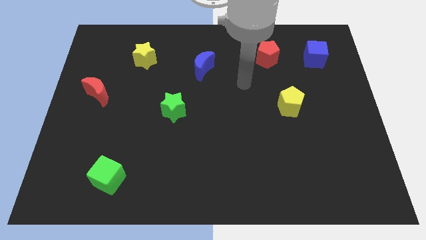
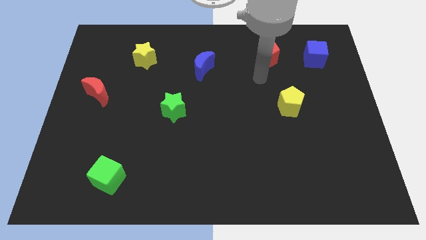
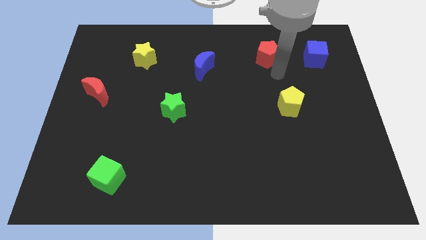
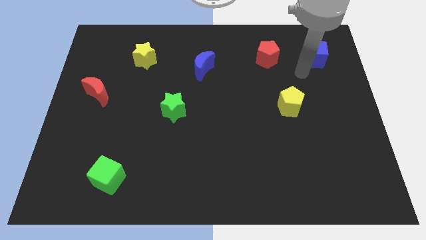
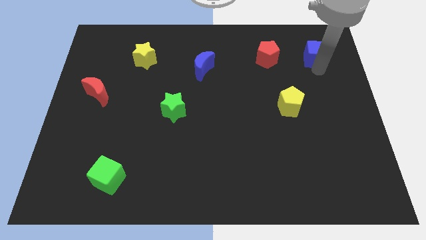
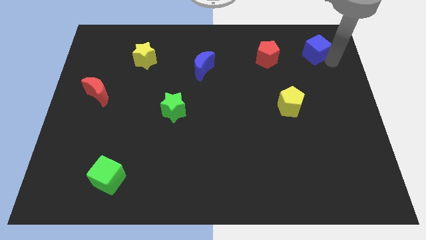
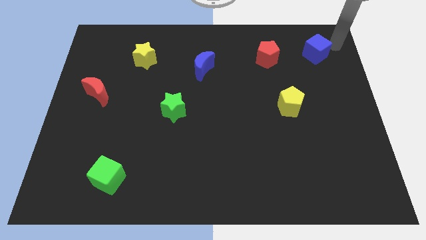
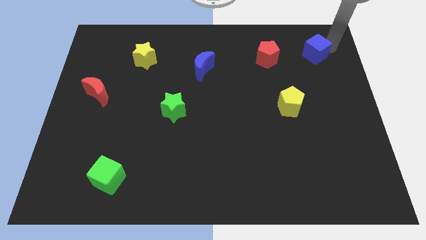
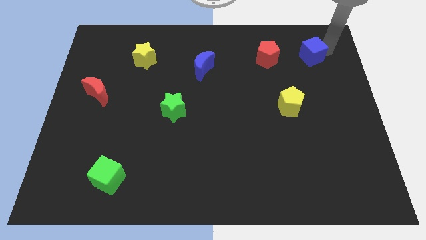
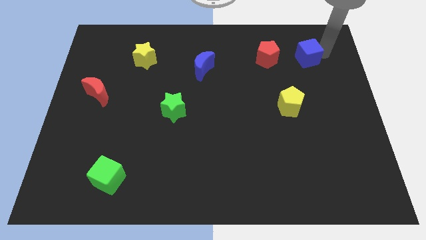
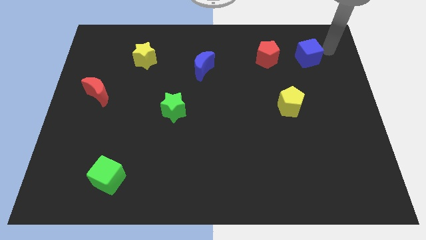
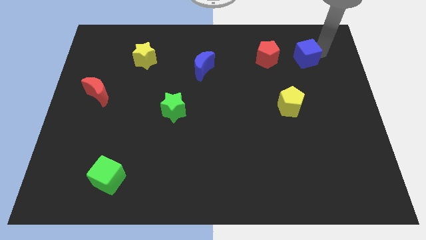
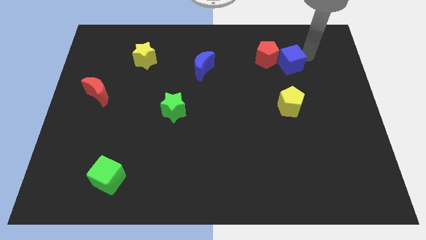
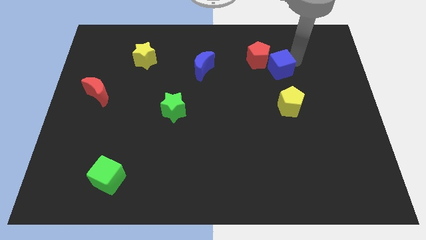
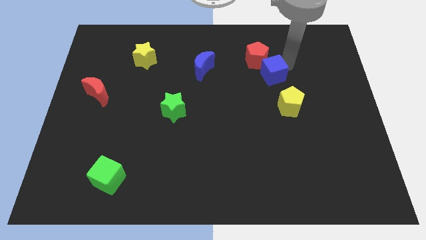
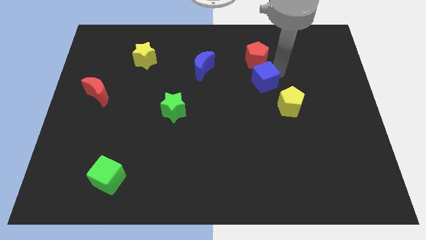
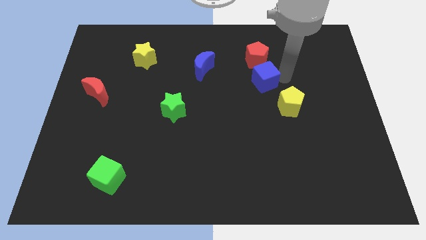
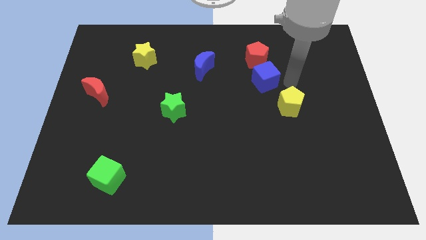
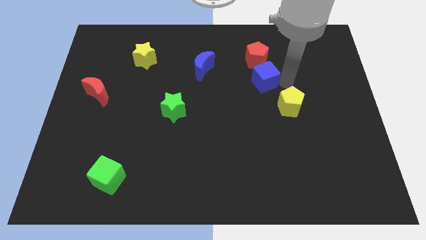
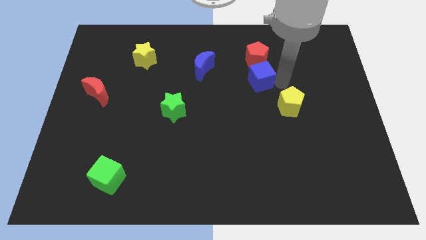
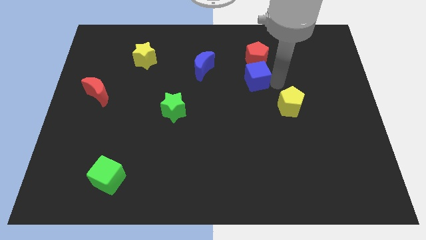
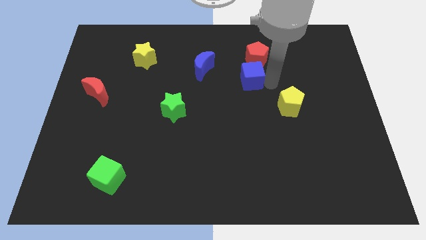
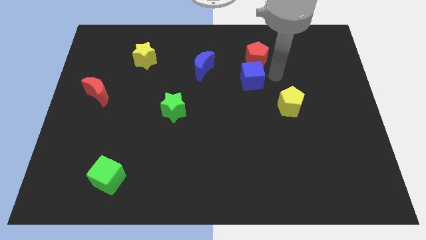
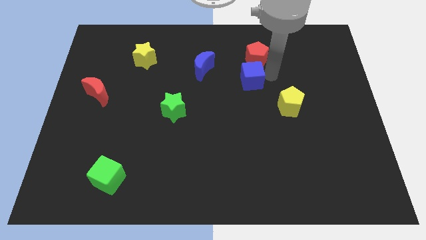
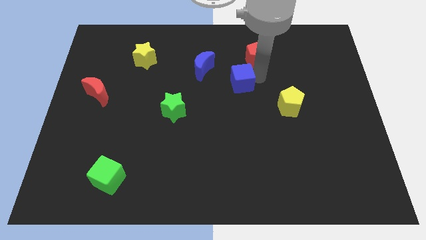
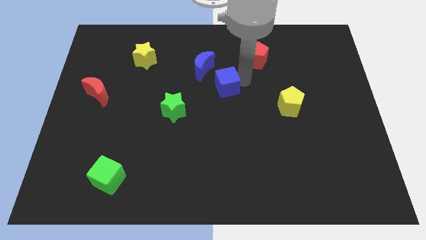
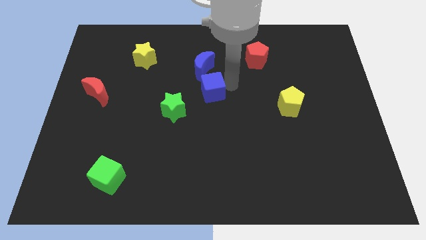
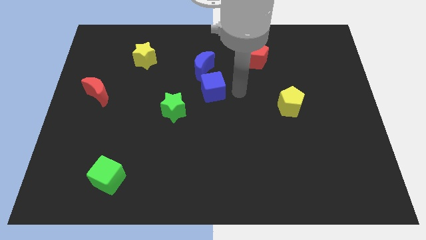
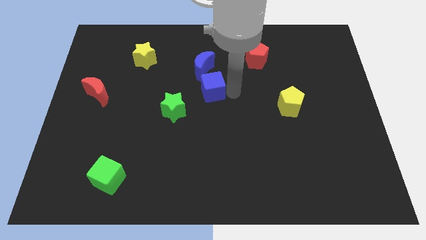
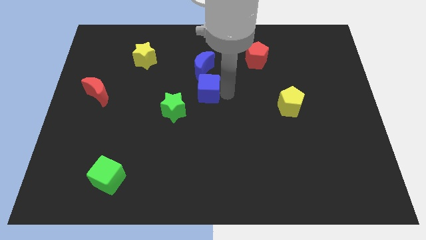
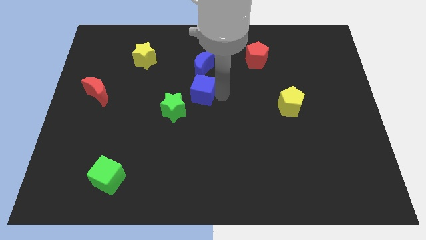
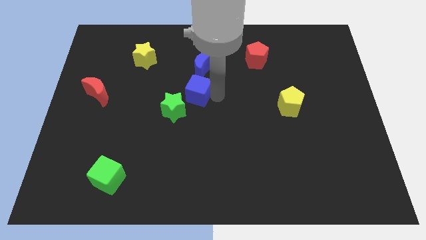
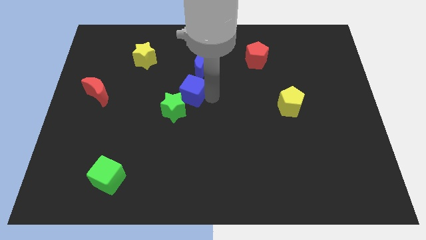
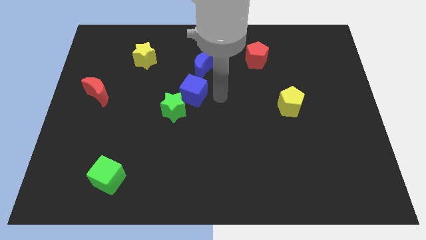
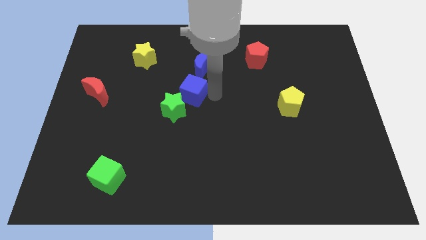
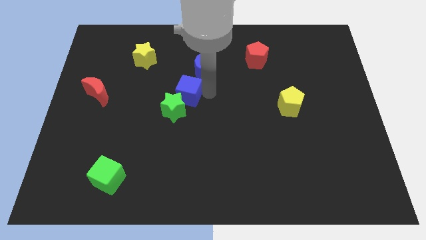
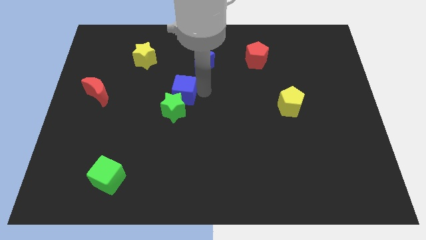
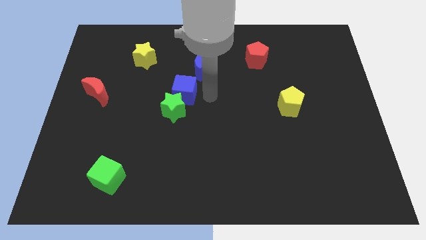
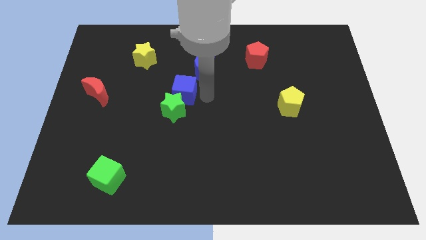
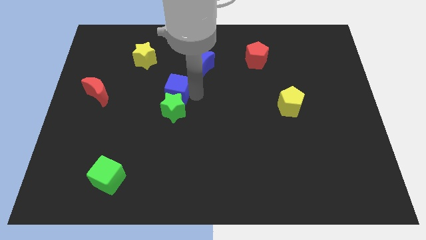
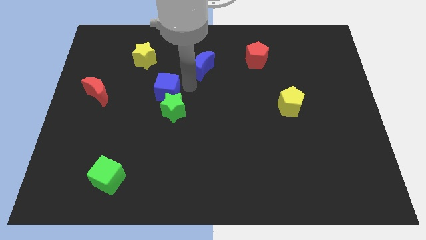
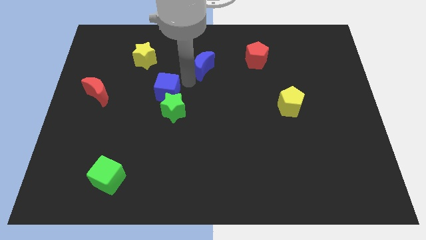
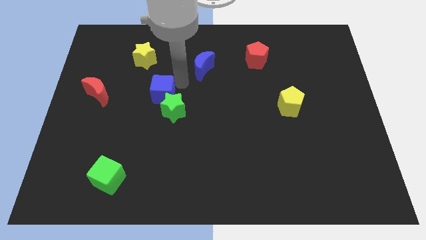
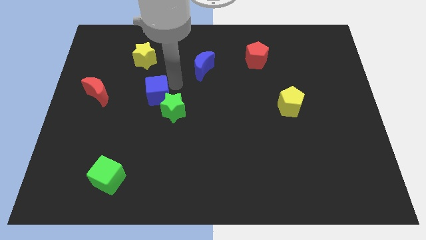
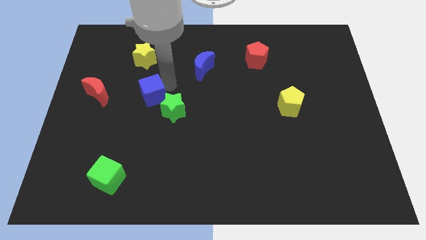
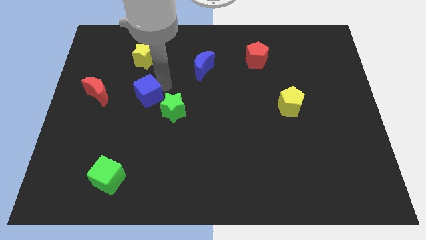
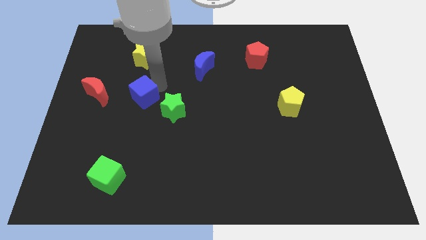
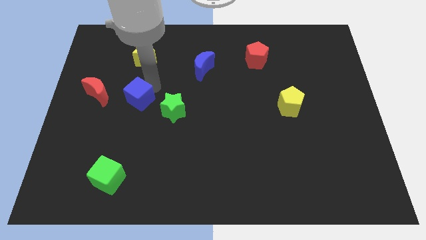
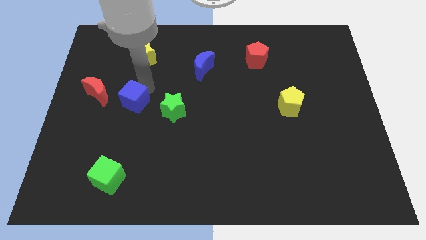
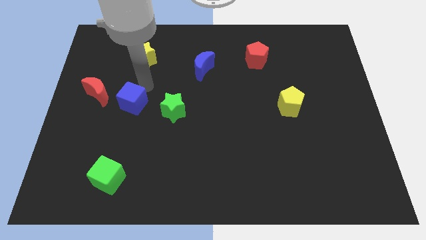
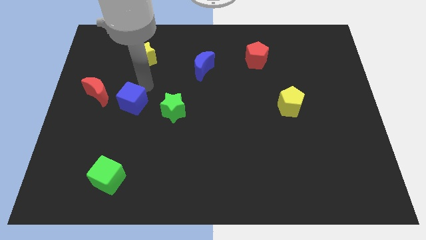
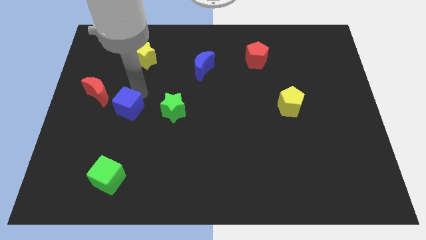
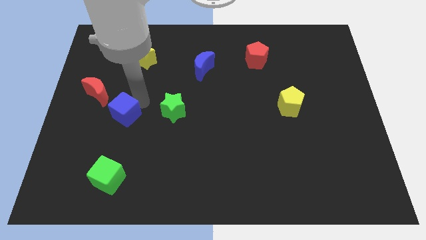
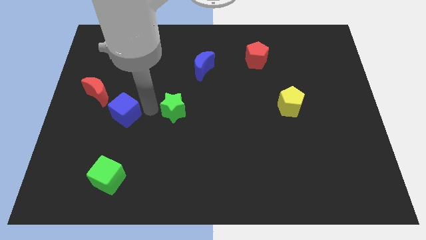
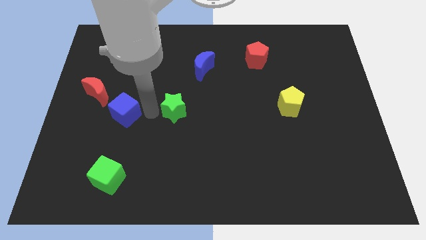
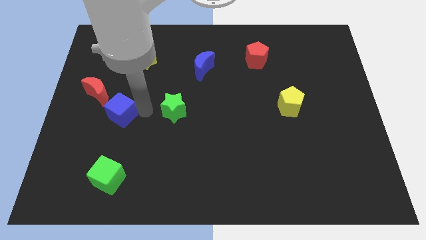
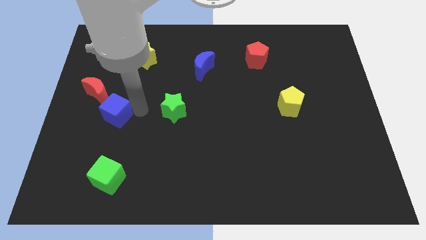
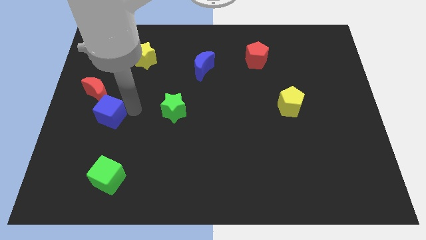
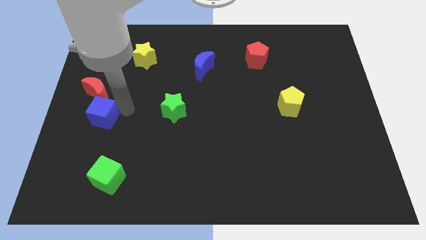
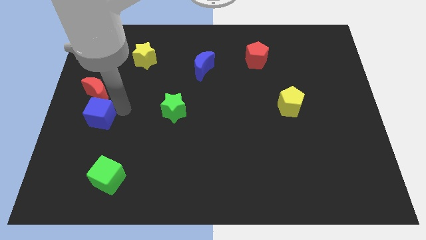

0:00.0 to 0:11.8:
push the blue cube to the left side of the board

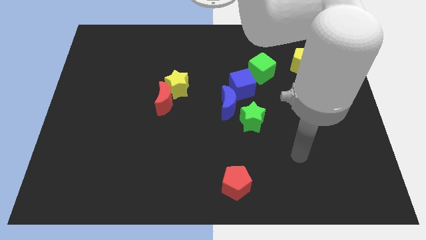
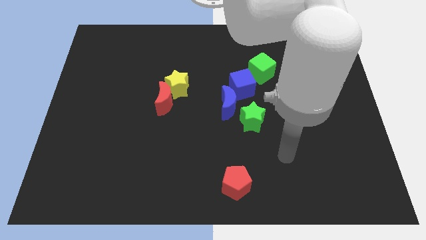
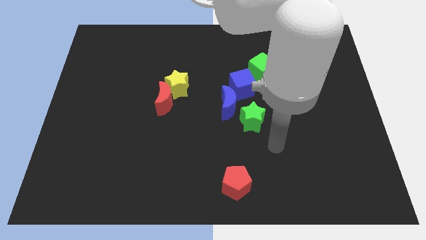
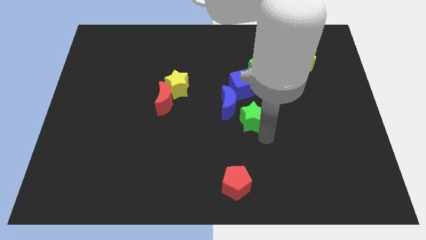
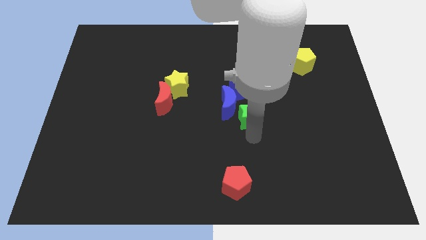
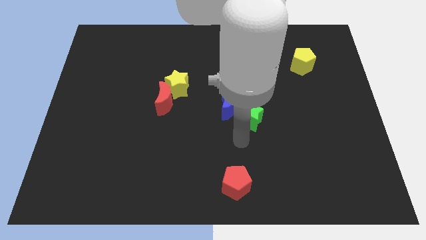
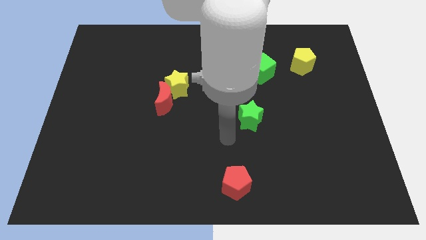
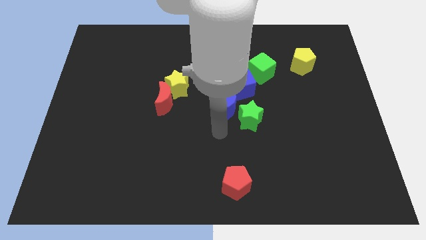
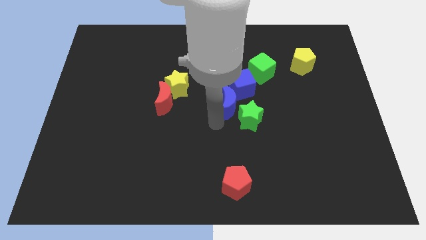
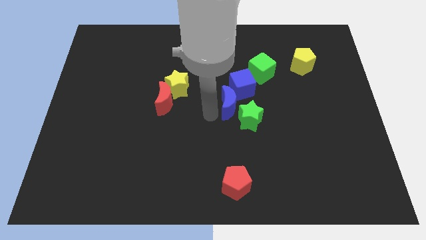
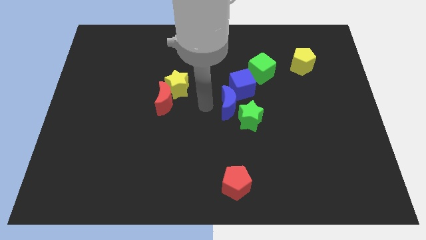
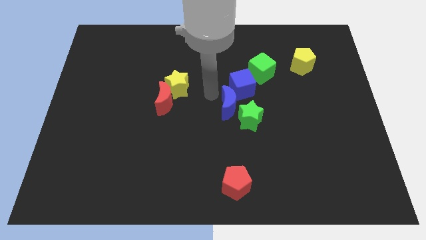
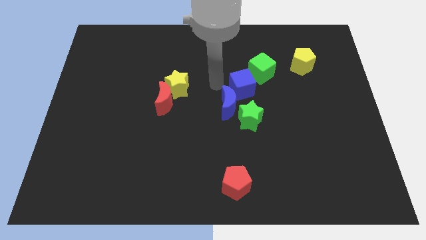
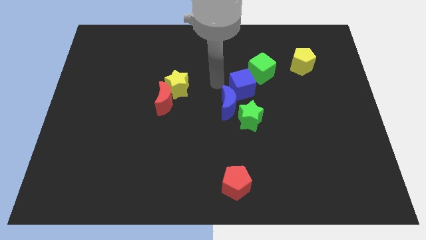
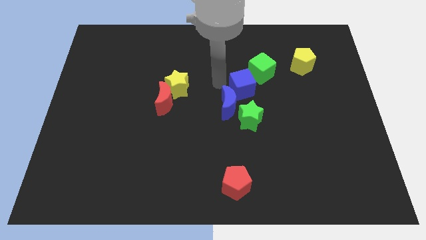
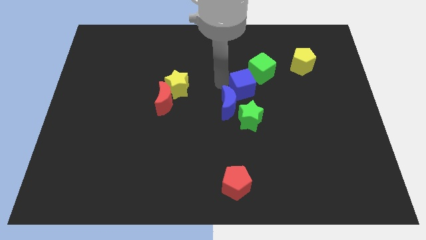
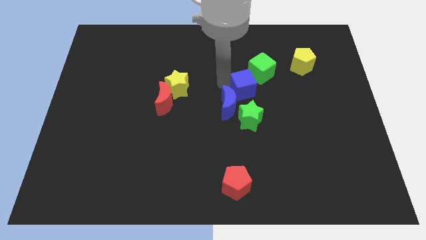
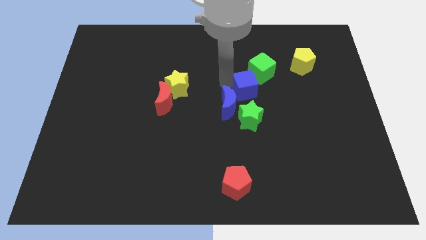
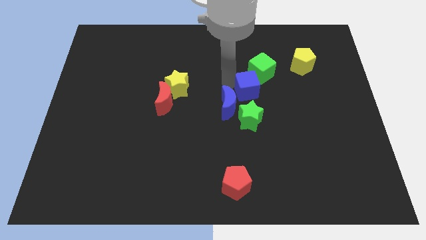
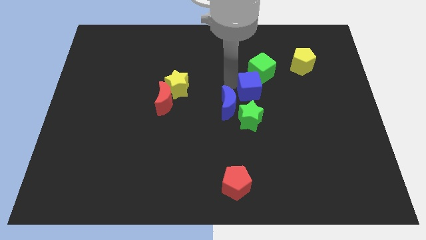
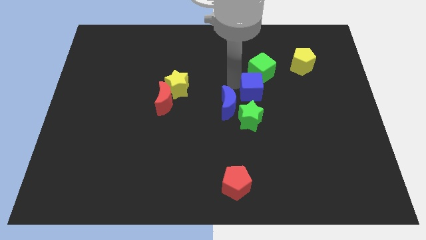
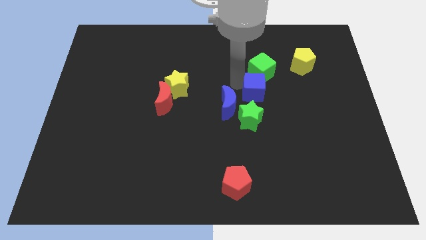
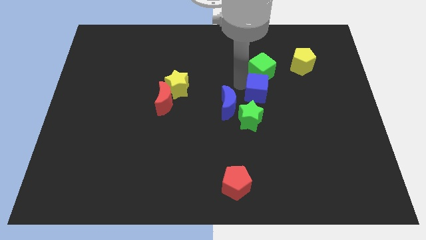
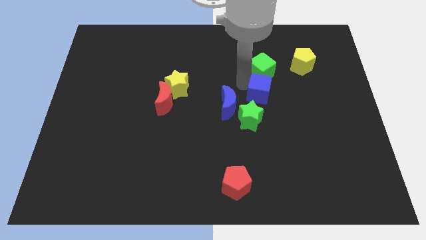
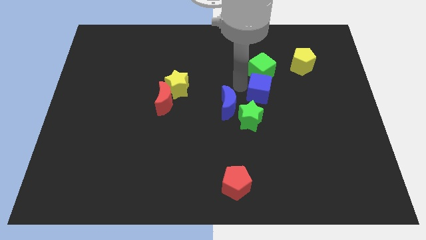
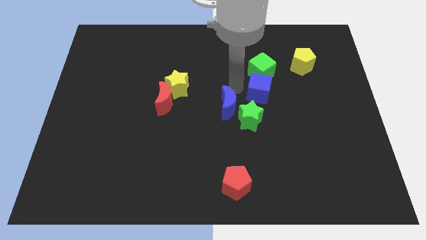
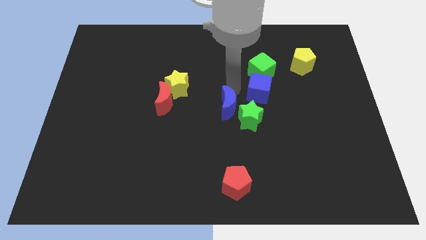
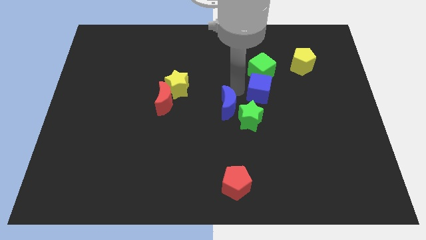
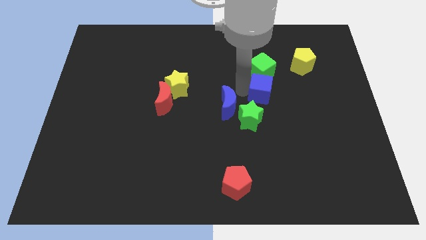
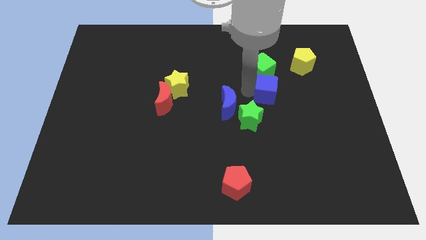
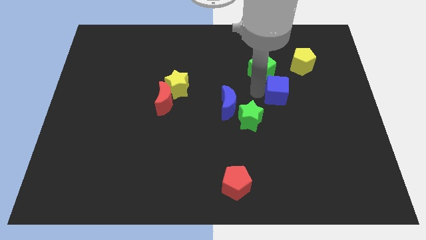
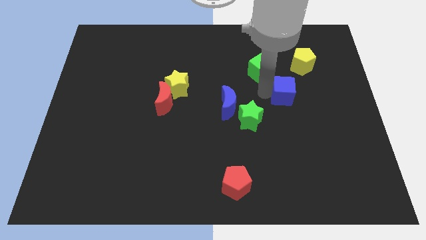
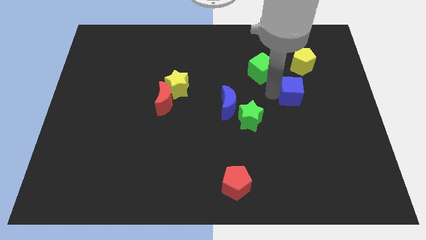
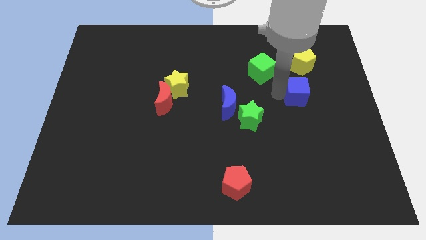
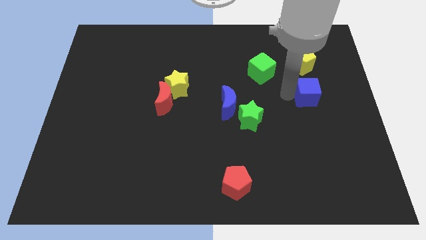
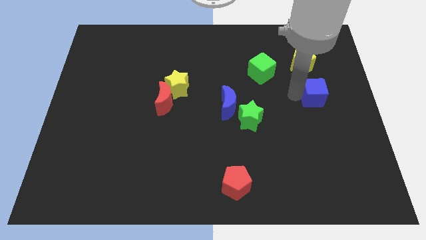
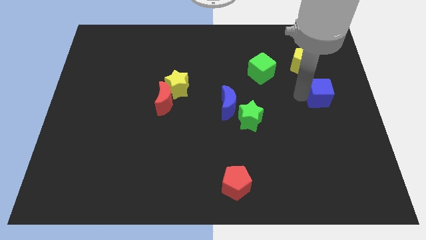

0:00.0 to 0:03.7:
push the blue cube to the center right
